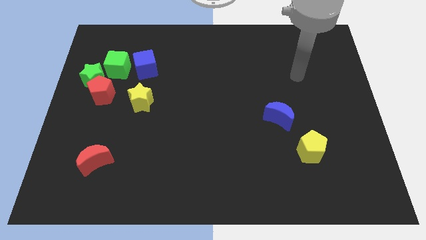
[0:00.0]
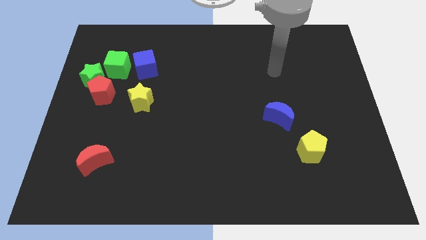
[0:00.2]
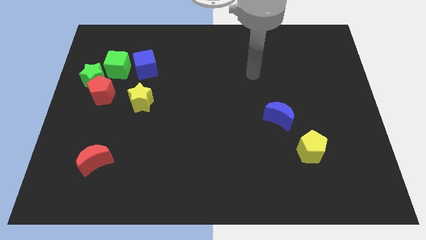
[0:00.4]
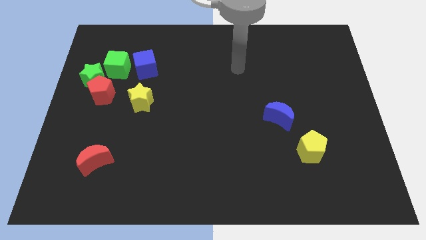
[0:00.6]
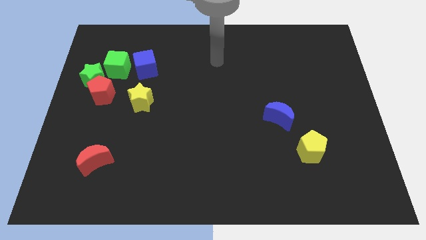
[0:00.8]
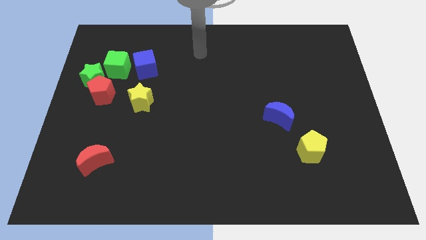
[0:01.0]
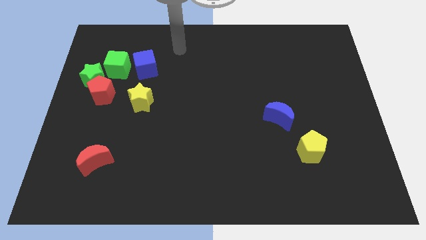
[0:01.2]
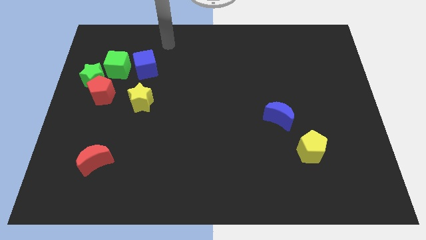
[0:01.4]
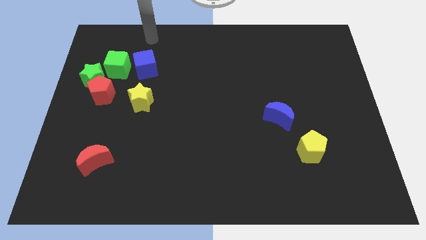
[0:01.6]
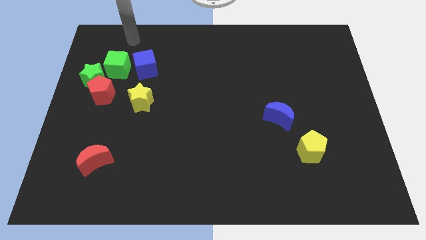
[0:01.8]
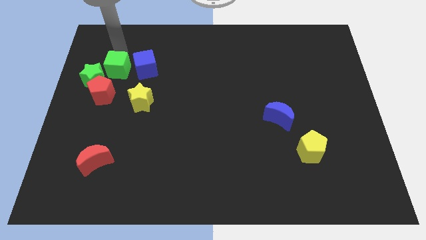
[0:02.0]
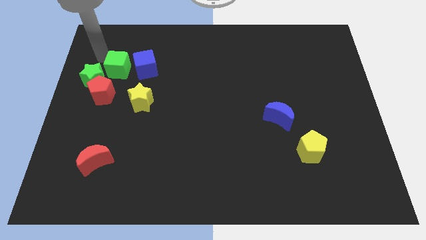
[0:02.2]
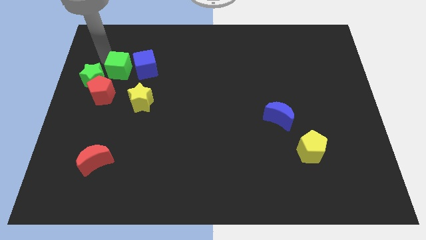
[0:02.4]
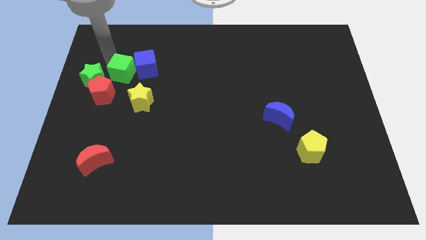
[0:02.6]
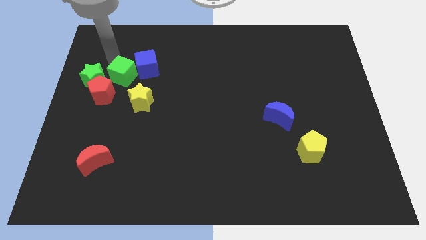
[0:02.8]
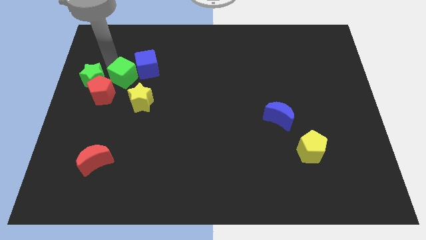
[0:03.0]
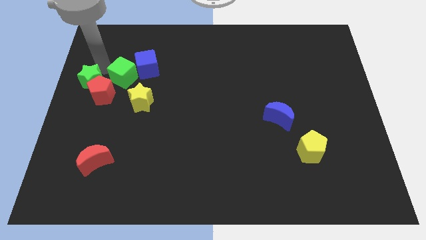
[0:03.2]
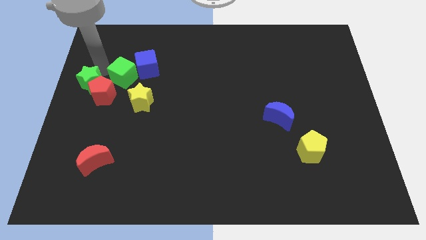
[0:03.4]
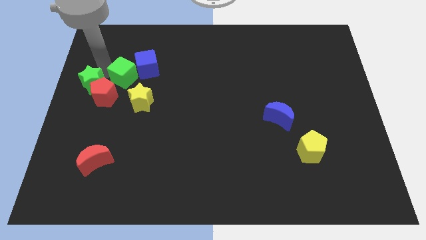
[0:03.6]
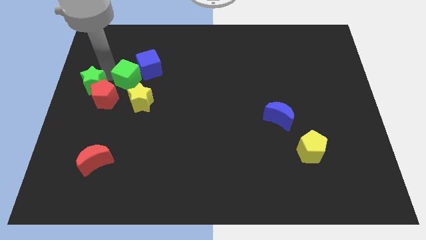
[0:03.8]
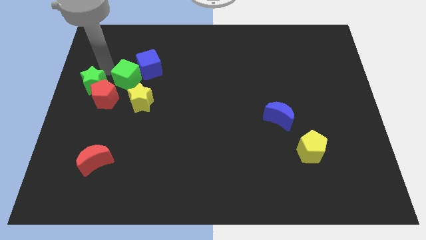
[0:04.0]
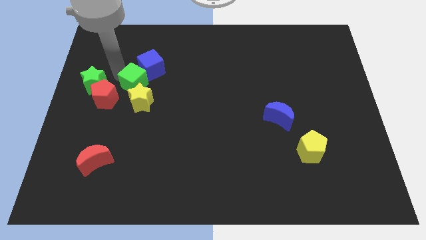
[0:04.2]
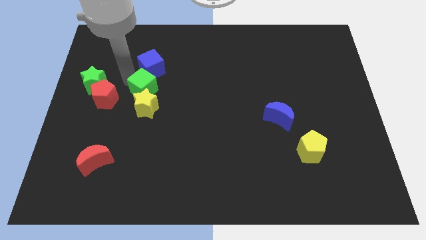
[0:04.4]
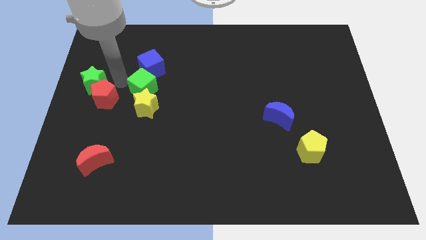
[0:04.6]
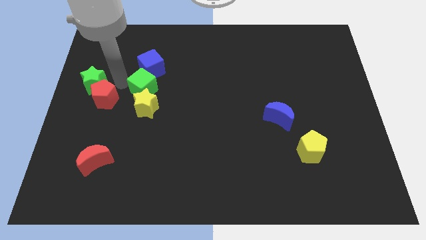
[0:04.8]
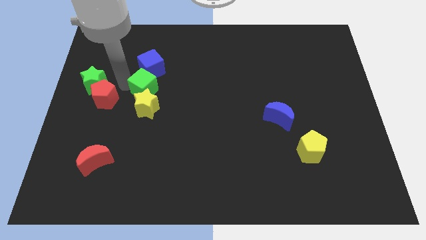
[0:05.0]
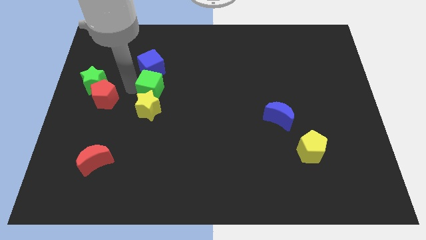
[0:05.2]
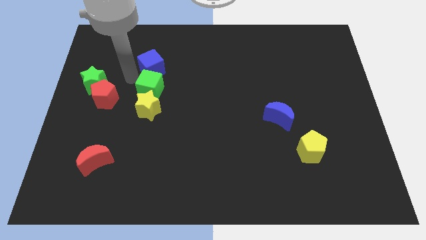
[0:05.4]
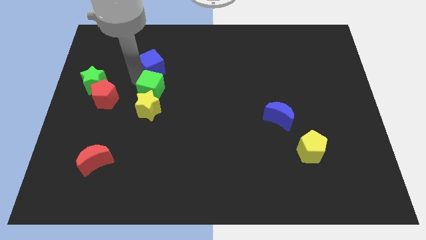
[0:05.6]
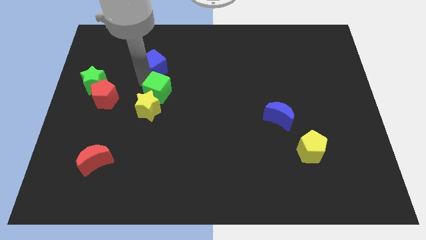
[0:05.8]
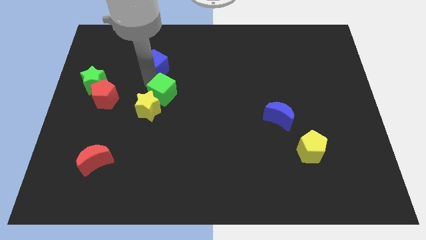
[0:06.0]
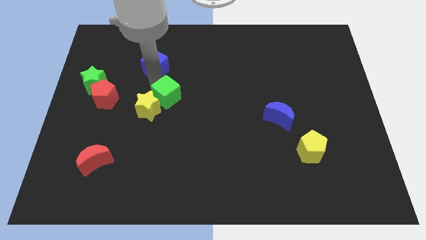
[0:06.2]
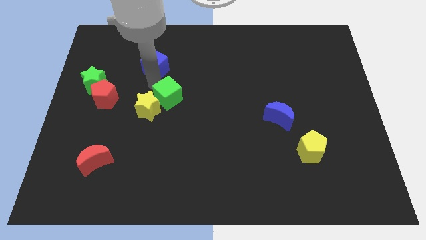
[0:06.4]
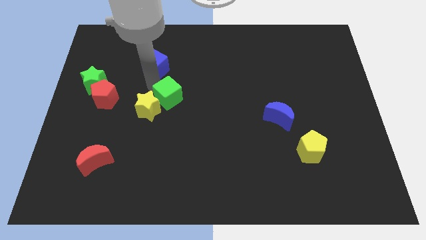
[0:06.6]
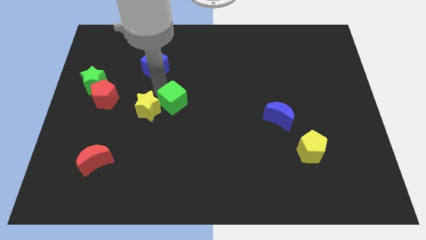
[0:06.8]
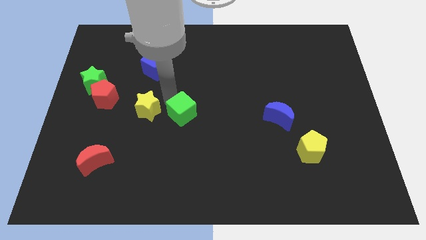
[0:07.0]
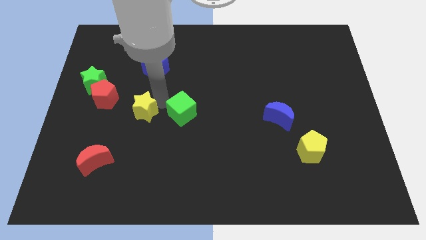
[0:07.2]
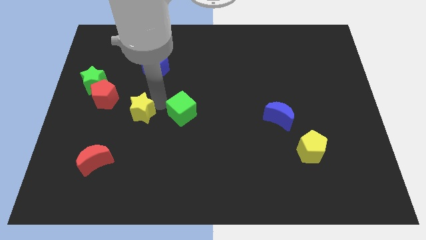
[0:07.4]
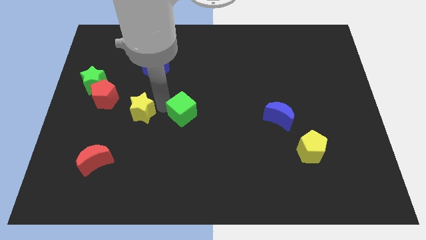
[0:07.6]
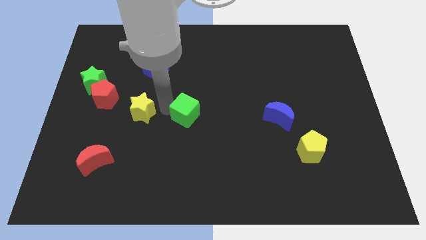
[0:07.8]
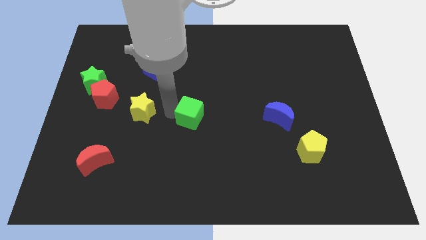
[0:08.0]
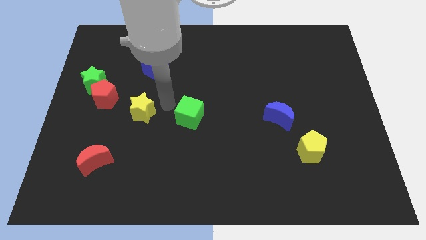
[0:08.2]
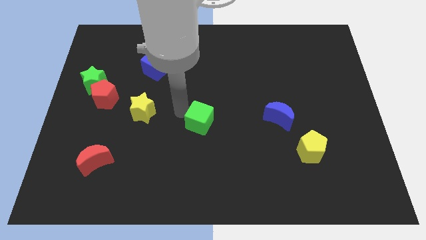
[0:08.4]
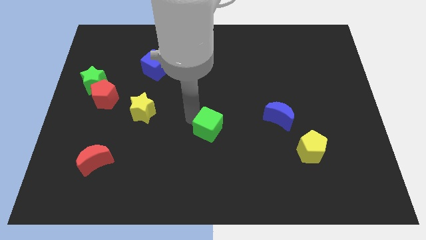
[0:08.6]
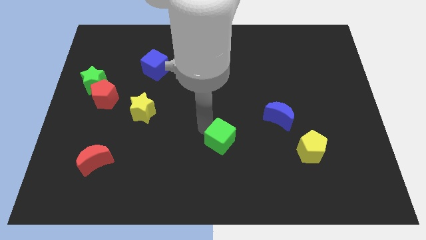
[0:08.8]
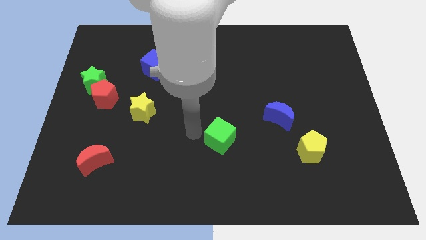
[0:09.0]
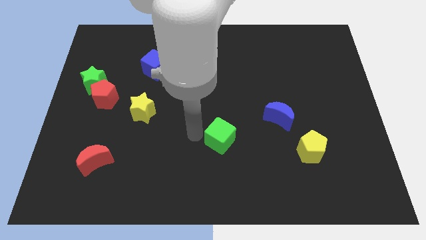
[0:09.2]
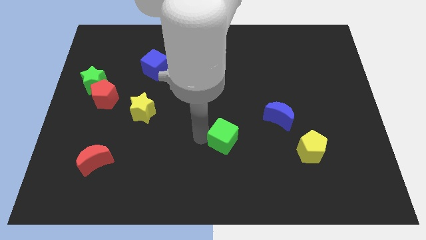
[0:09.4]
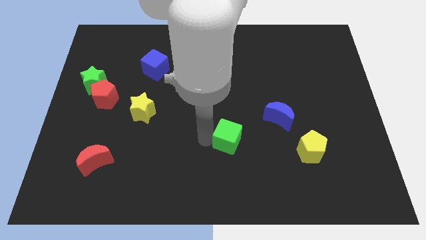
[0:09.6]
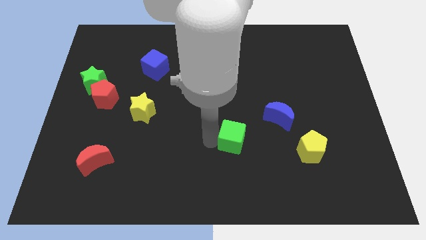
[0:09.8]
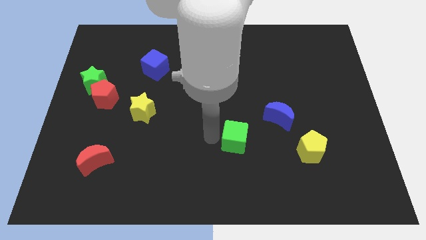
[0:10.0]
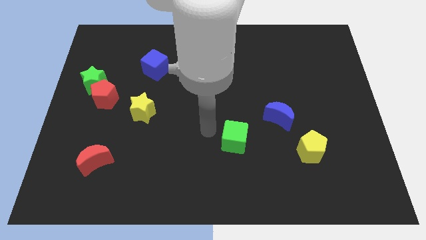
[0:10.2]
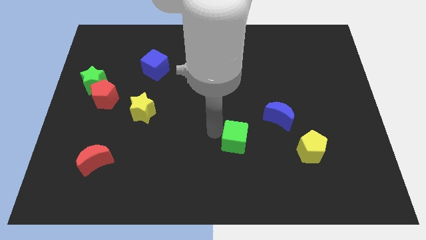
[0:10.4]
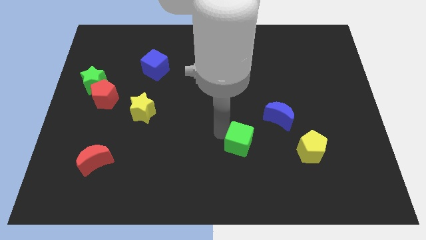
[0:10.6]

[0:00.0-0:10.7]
put the green cube left of the yellow pentagon
